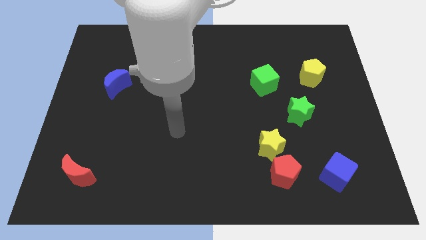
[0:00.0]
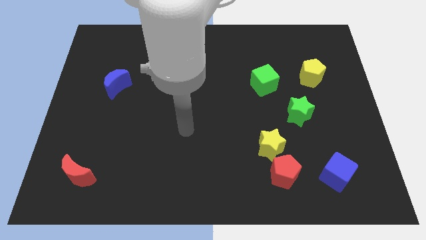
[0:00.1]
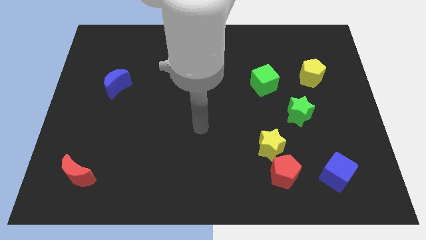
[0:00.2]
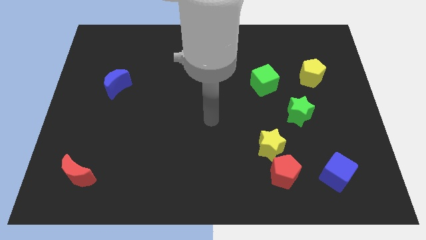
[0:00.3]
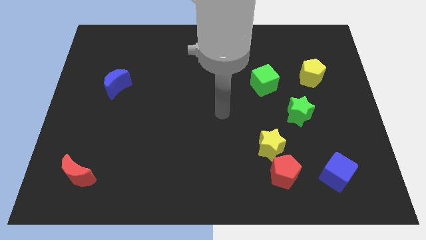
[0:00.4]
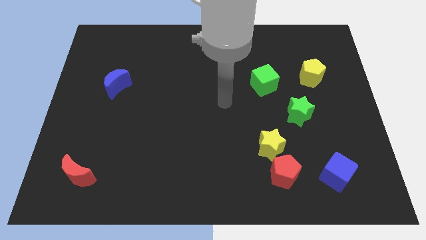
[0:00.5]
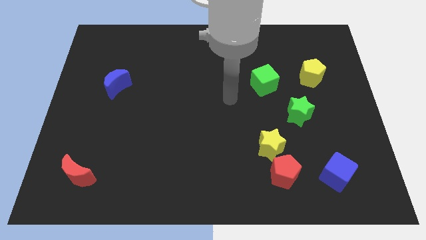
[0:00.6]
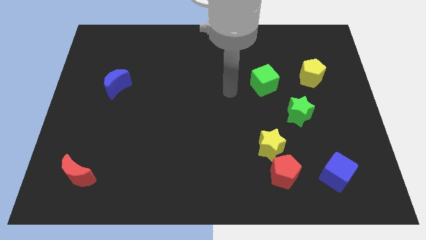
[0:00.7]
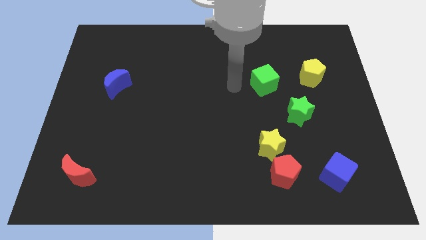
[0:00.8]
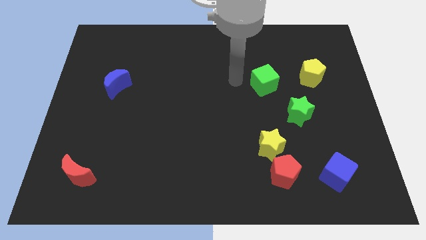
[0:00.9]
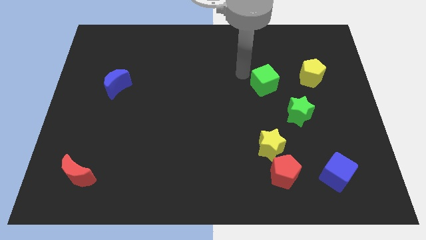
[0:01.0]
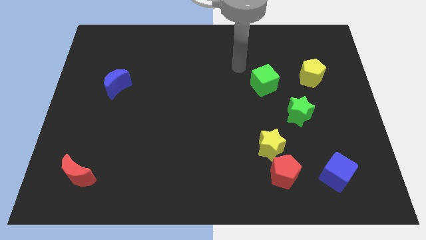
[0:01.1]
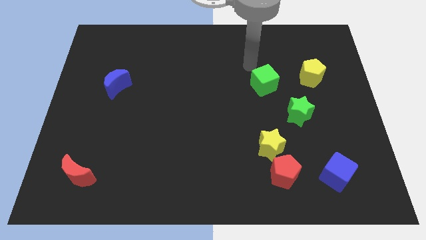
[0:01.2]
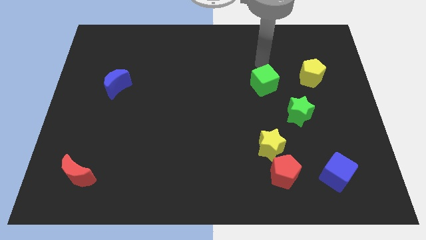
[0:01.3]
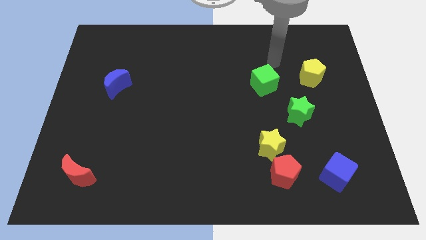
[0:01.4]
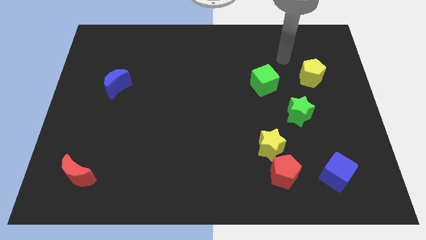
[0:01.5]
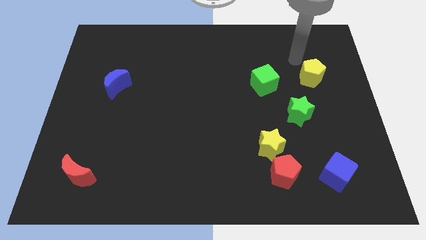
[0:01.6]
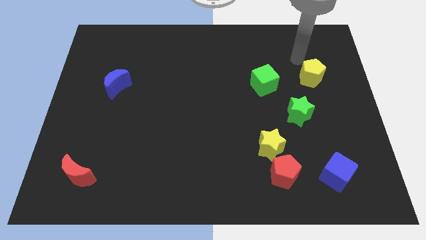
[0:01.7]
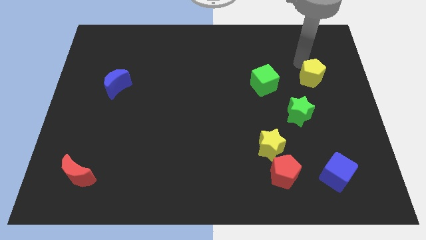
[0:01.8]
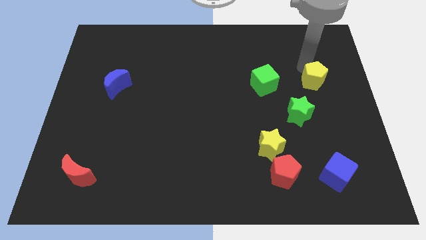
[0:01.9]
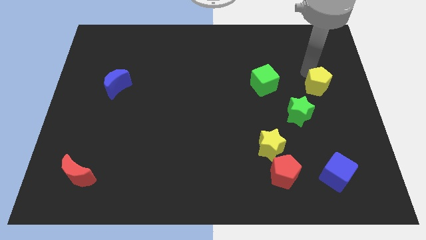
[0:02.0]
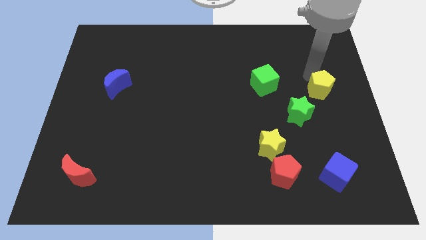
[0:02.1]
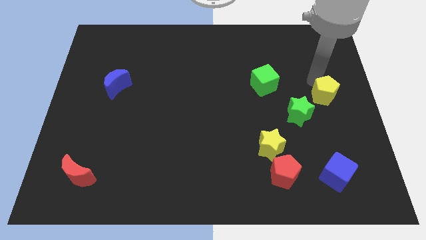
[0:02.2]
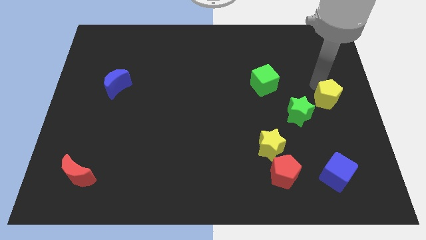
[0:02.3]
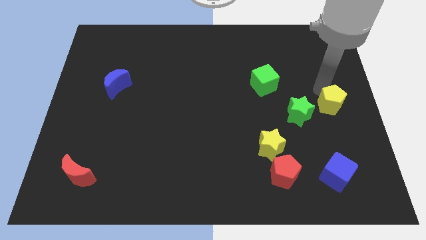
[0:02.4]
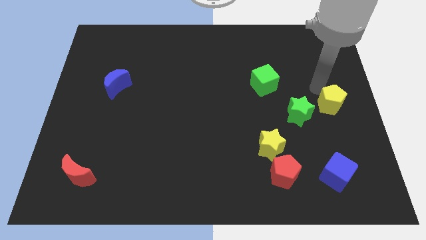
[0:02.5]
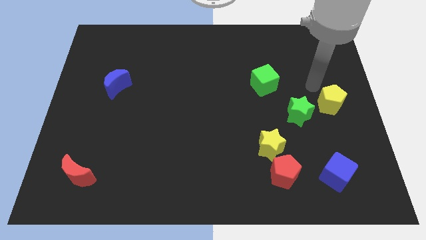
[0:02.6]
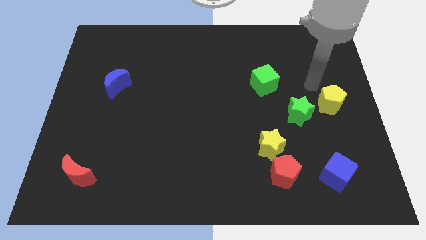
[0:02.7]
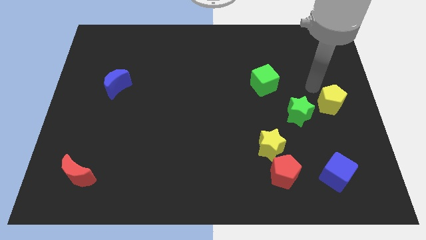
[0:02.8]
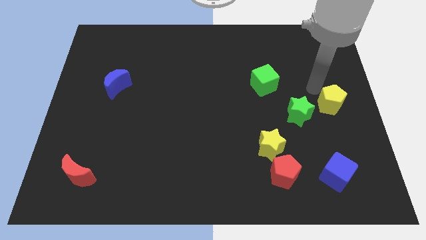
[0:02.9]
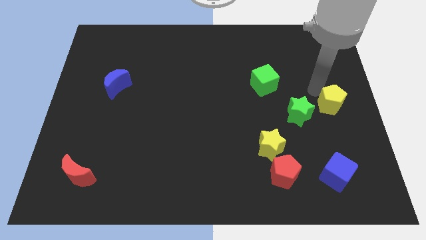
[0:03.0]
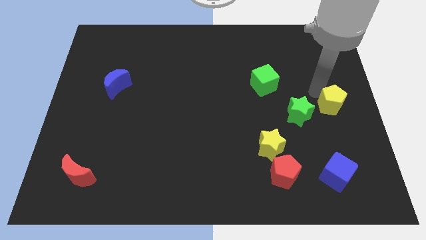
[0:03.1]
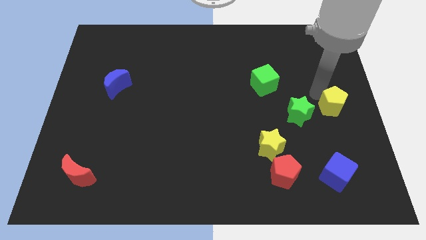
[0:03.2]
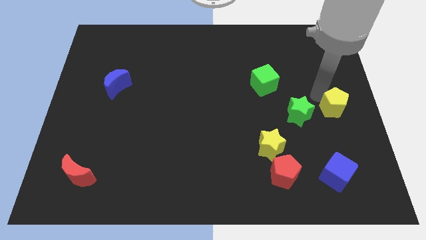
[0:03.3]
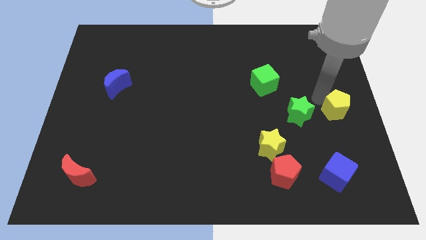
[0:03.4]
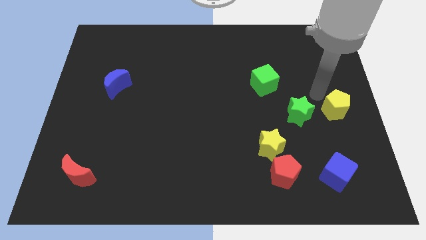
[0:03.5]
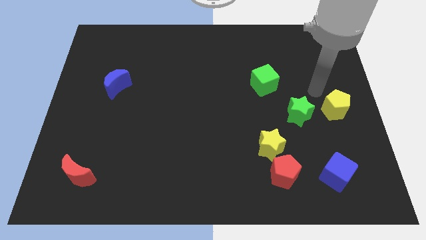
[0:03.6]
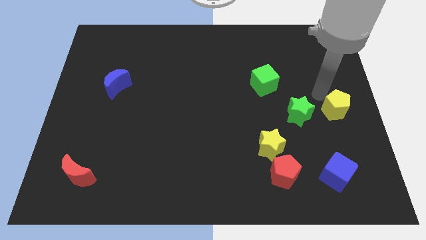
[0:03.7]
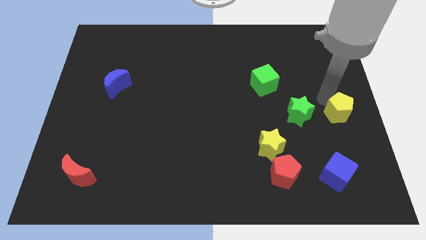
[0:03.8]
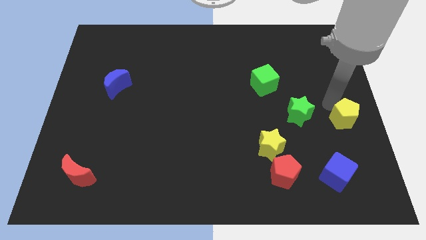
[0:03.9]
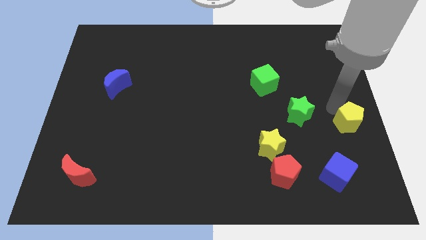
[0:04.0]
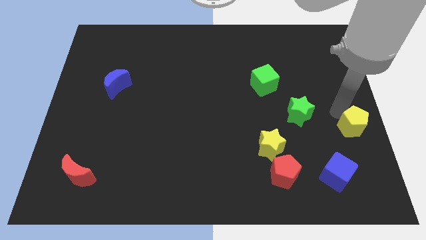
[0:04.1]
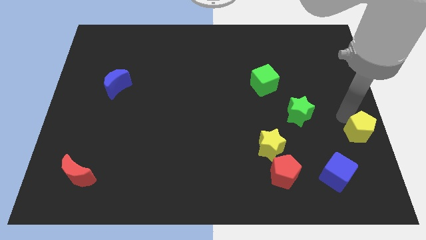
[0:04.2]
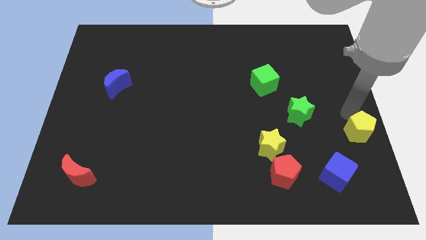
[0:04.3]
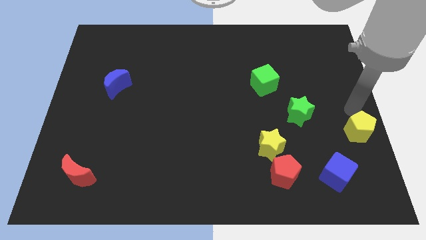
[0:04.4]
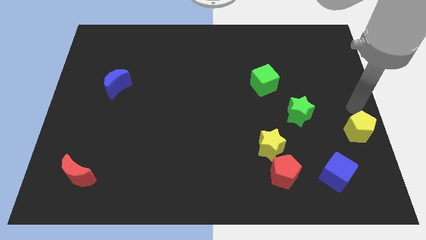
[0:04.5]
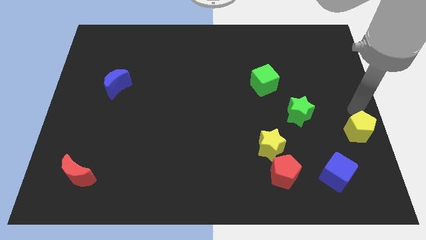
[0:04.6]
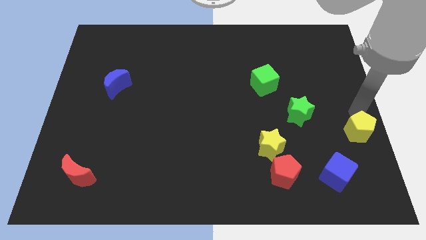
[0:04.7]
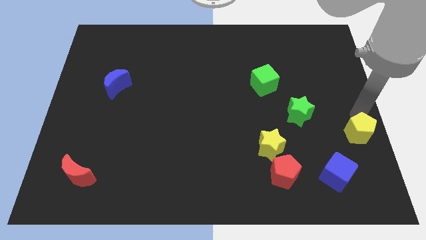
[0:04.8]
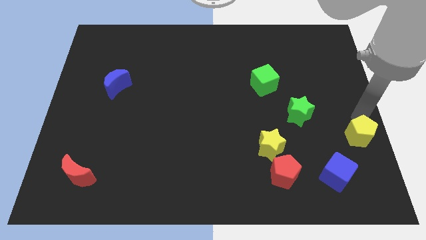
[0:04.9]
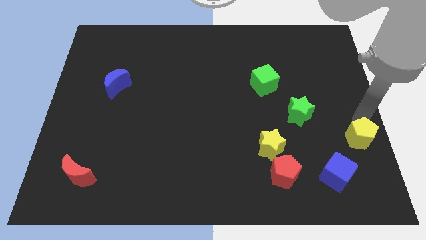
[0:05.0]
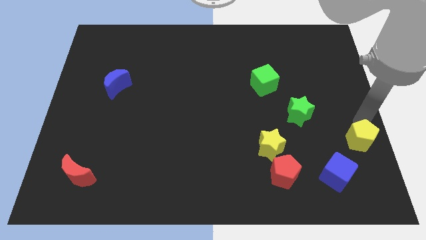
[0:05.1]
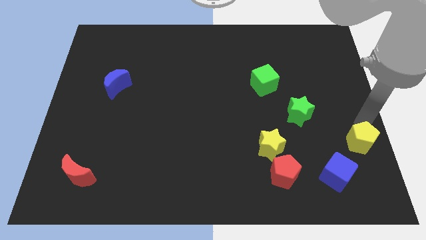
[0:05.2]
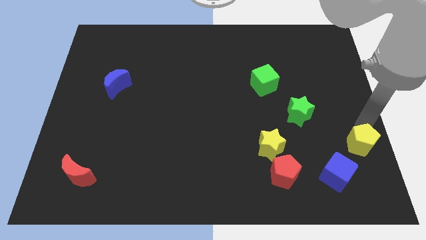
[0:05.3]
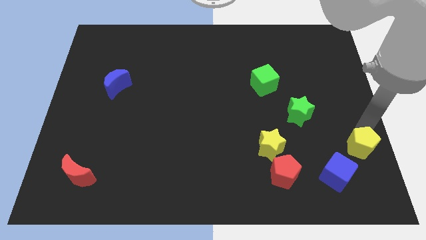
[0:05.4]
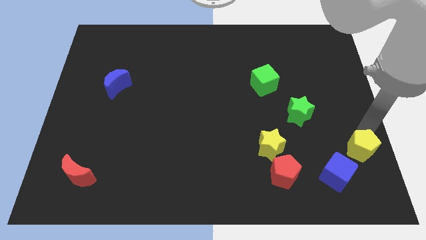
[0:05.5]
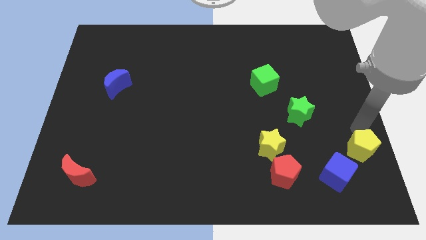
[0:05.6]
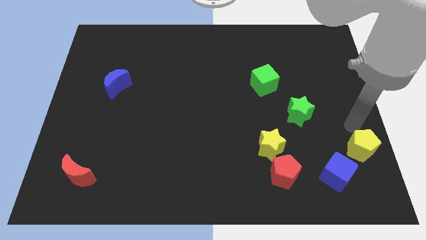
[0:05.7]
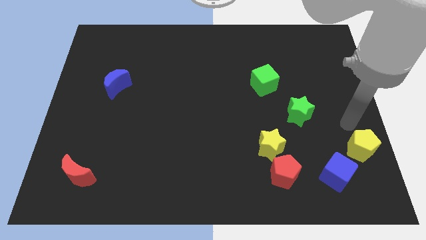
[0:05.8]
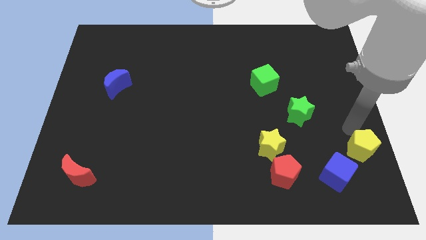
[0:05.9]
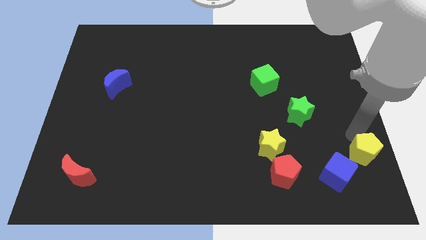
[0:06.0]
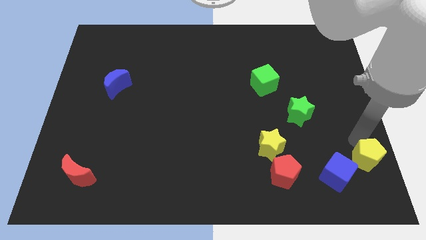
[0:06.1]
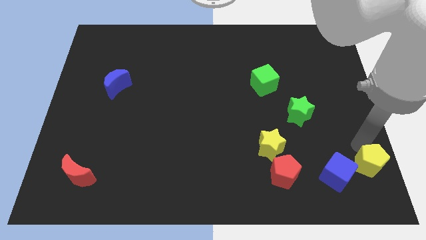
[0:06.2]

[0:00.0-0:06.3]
move the yellow pentagon to the bottom right corner
